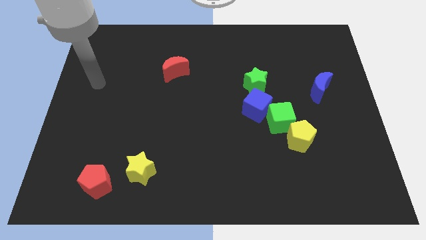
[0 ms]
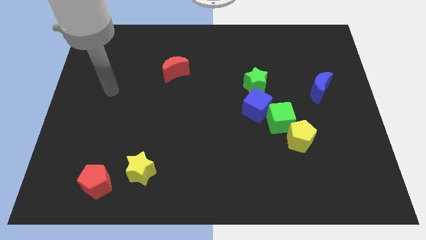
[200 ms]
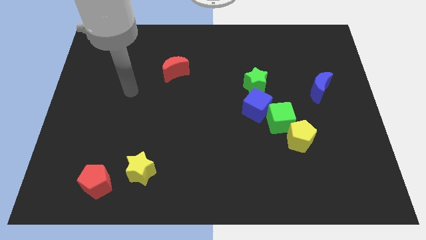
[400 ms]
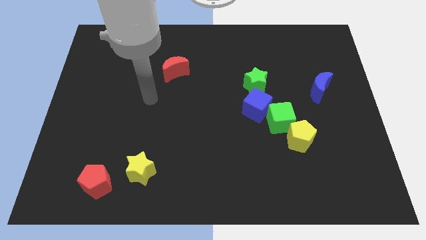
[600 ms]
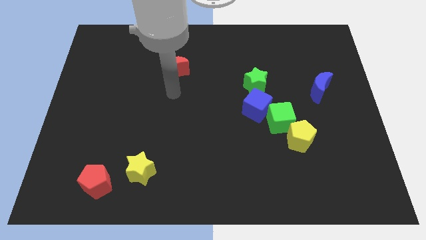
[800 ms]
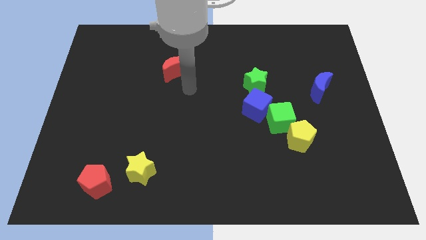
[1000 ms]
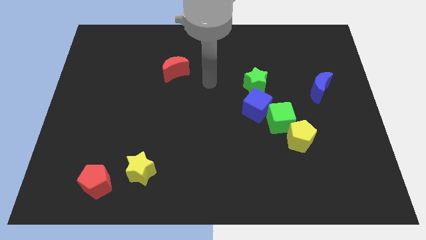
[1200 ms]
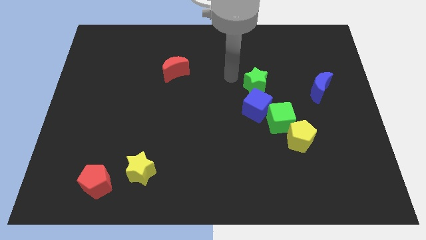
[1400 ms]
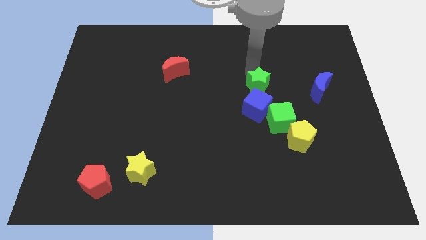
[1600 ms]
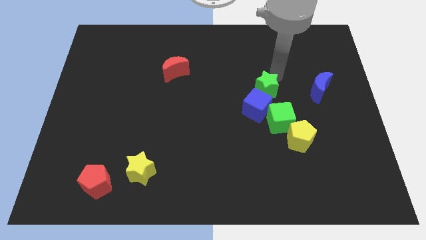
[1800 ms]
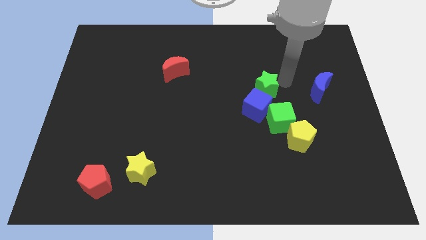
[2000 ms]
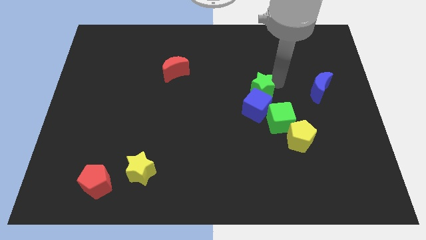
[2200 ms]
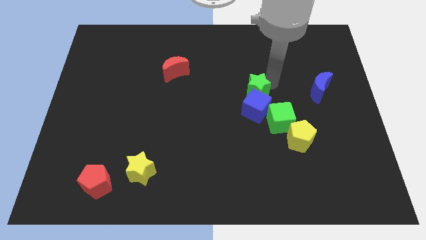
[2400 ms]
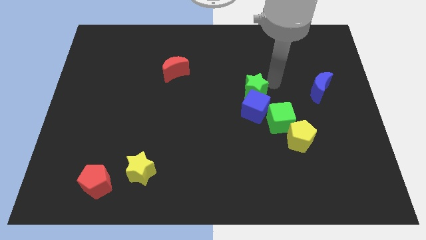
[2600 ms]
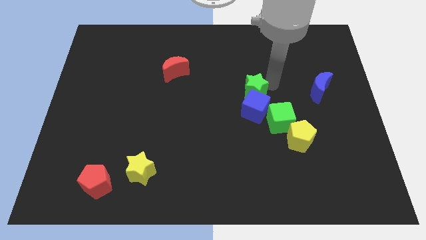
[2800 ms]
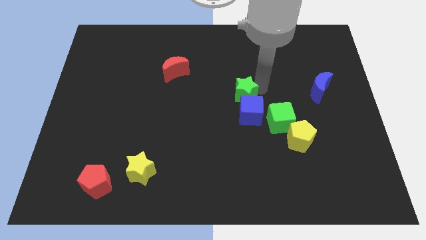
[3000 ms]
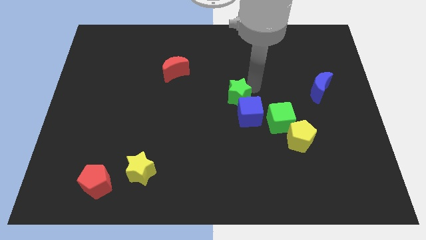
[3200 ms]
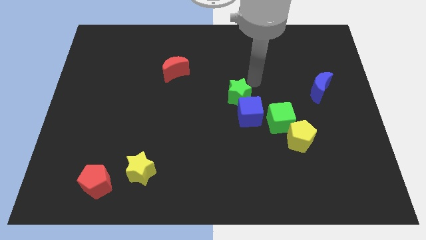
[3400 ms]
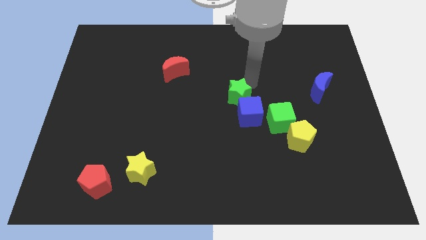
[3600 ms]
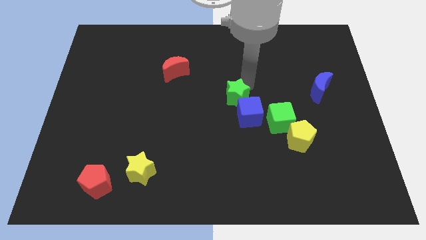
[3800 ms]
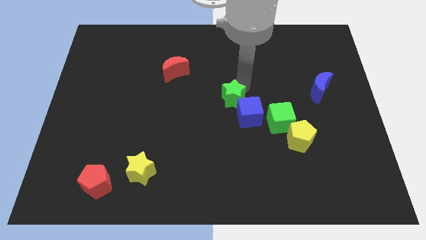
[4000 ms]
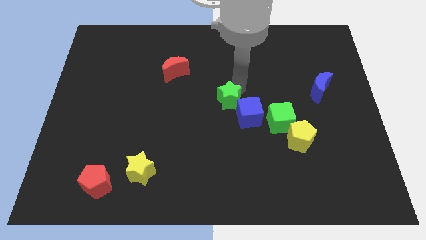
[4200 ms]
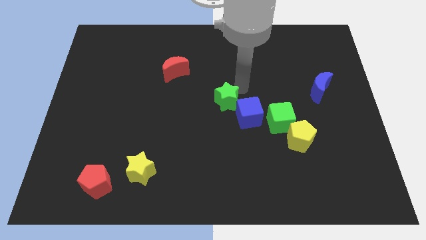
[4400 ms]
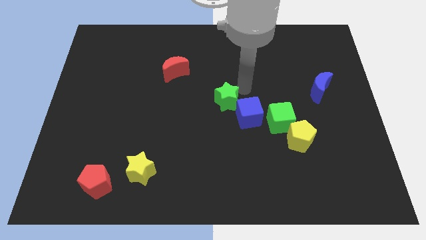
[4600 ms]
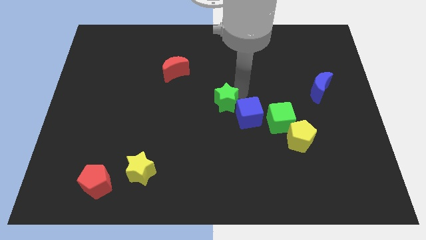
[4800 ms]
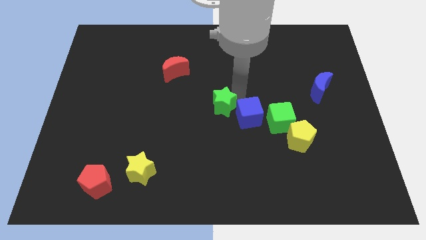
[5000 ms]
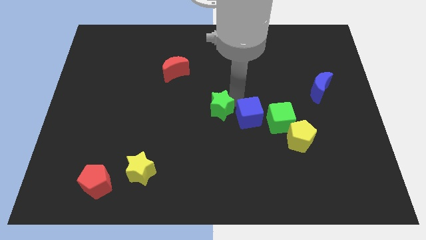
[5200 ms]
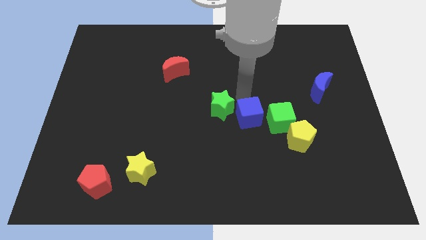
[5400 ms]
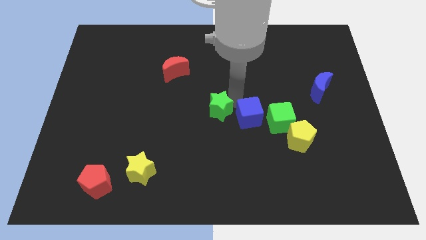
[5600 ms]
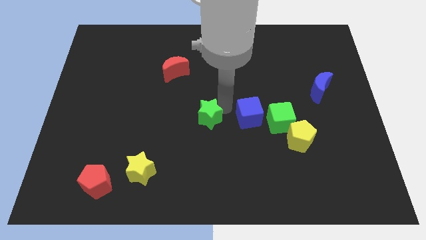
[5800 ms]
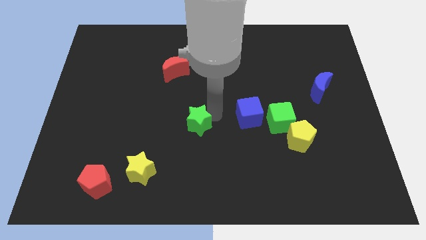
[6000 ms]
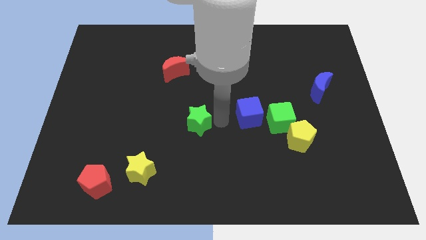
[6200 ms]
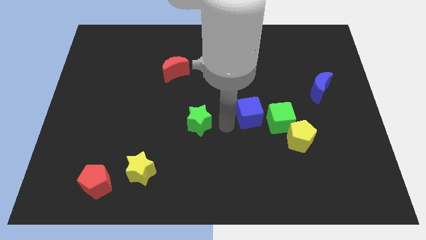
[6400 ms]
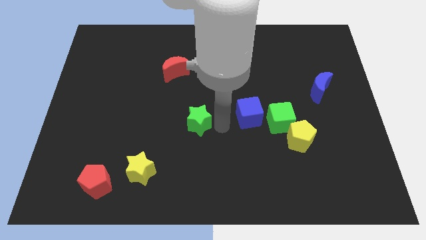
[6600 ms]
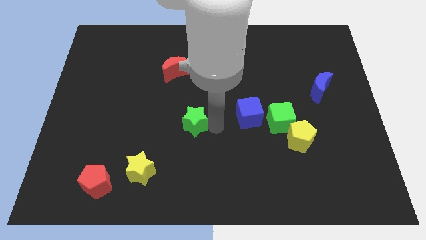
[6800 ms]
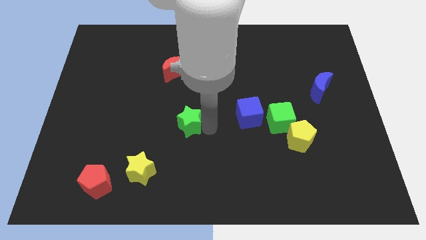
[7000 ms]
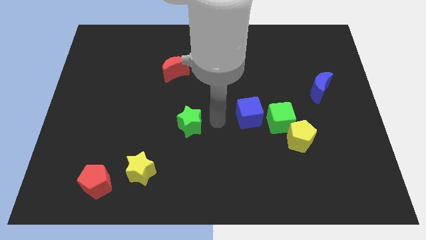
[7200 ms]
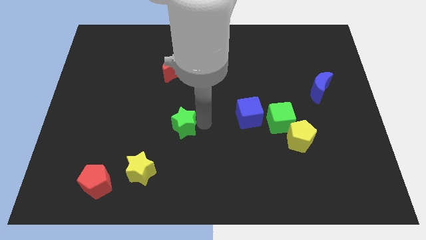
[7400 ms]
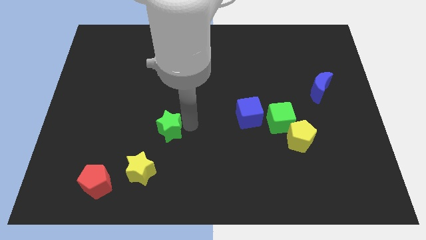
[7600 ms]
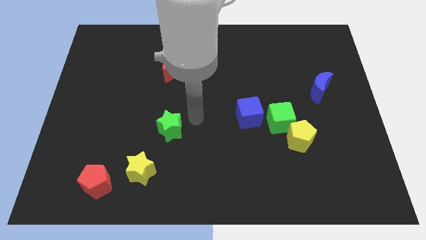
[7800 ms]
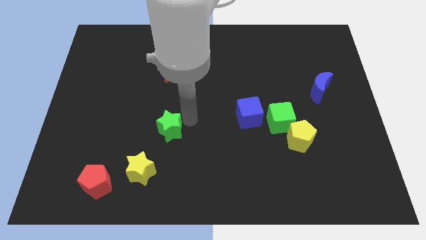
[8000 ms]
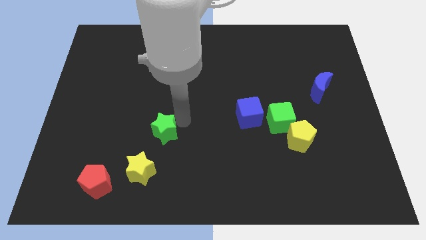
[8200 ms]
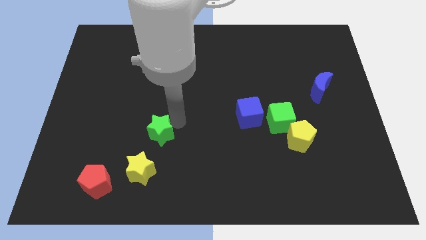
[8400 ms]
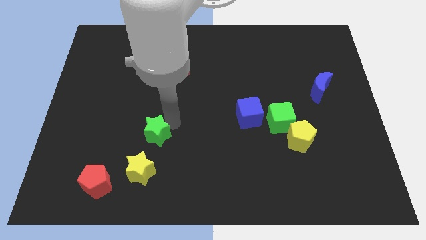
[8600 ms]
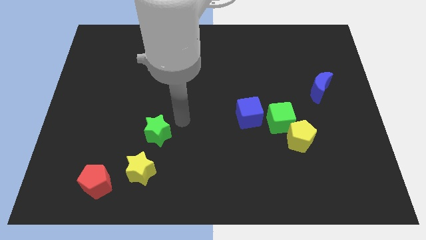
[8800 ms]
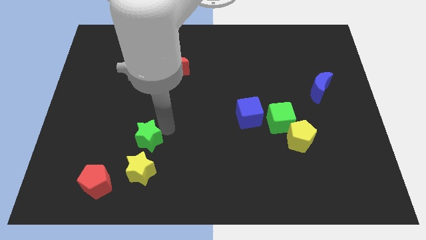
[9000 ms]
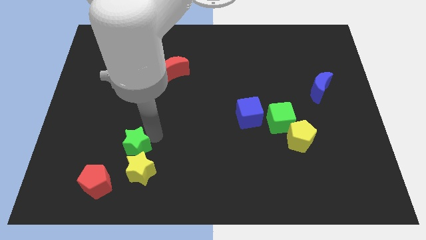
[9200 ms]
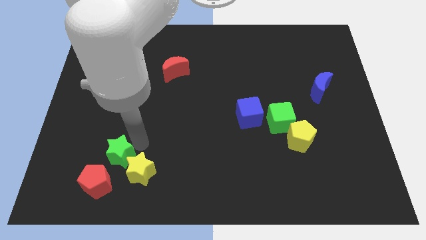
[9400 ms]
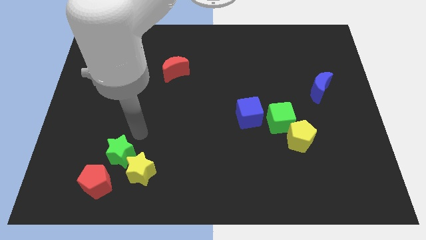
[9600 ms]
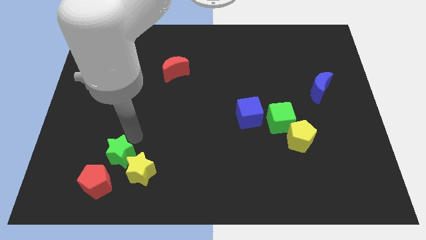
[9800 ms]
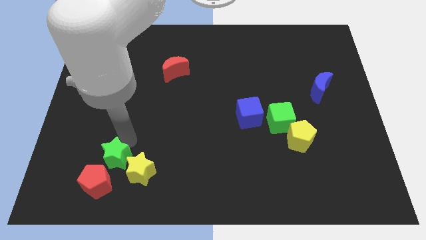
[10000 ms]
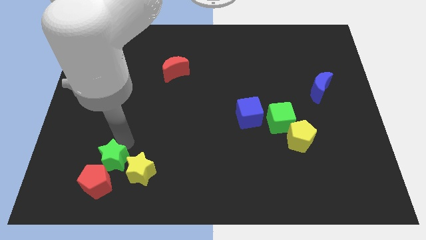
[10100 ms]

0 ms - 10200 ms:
slide the green star to the red pentagon

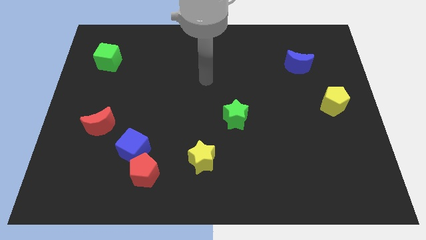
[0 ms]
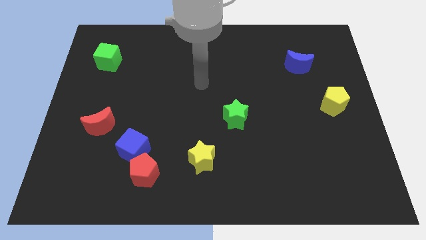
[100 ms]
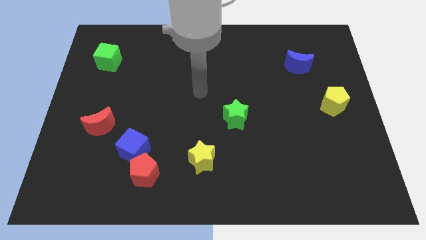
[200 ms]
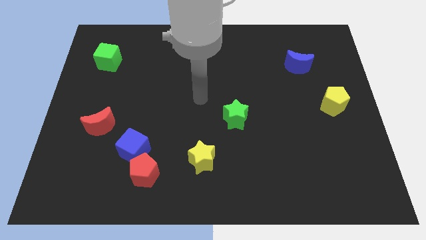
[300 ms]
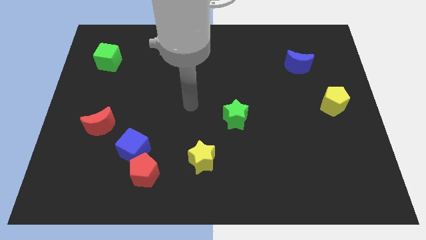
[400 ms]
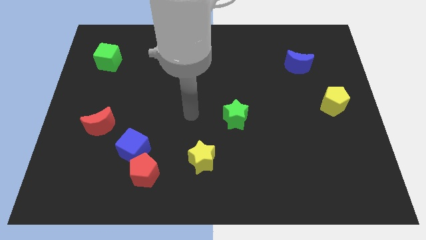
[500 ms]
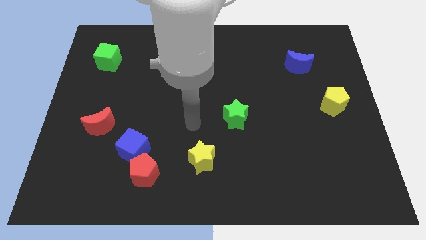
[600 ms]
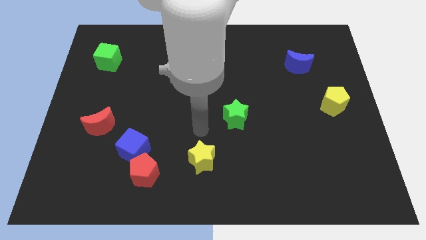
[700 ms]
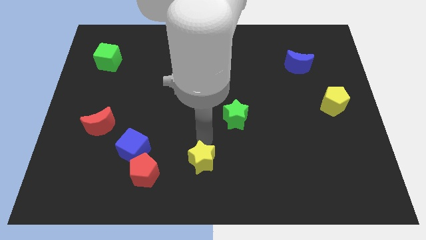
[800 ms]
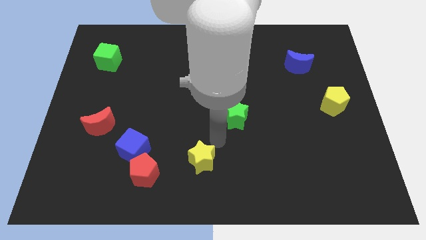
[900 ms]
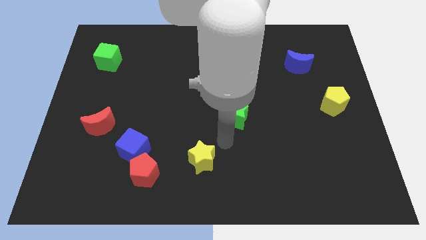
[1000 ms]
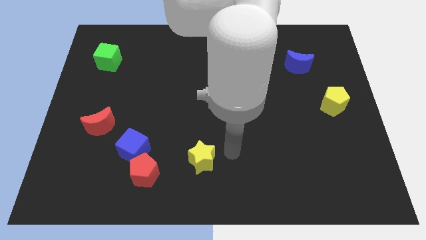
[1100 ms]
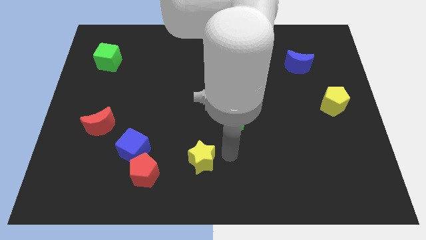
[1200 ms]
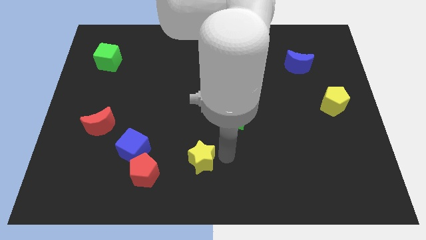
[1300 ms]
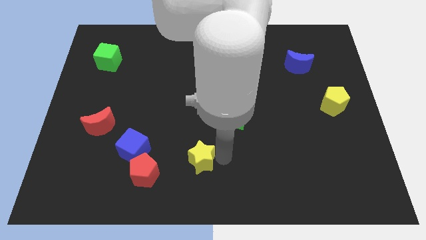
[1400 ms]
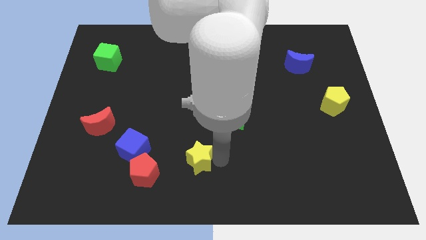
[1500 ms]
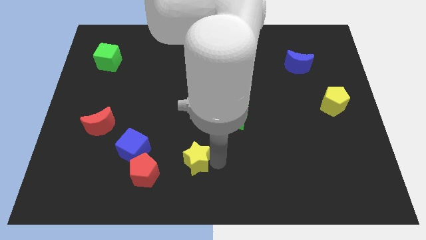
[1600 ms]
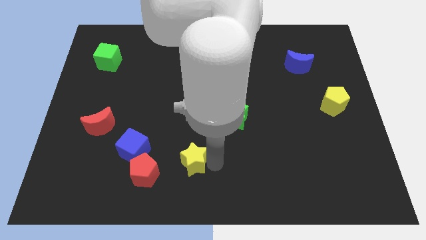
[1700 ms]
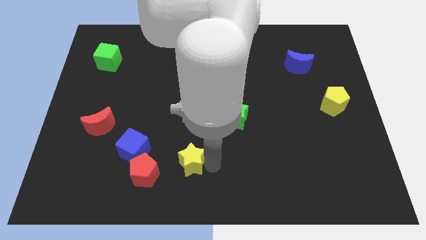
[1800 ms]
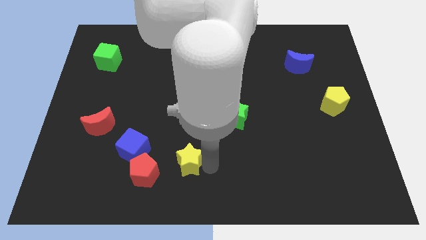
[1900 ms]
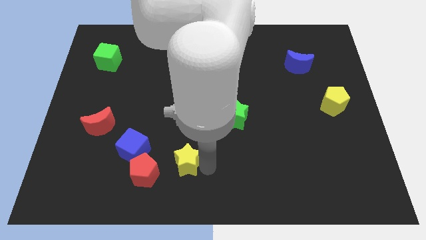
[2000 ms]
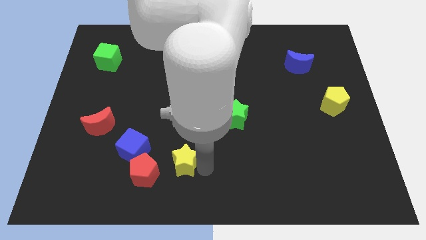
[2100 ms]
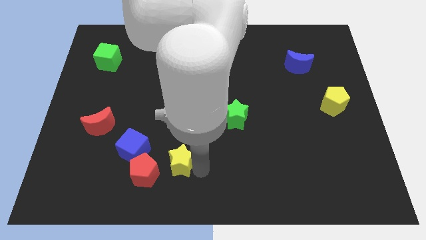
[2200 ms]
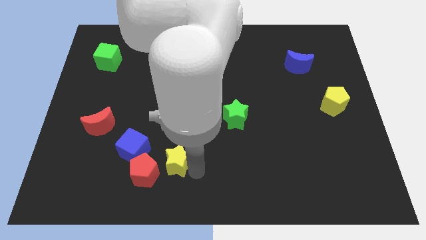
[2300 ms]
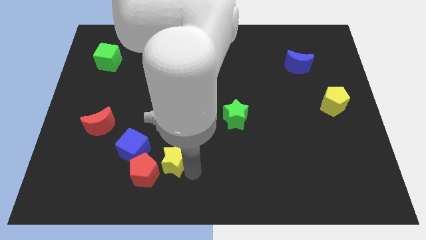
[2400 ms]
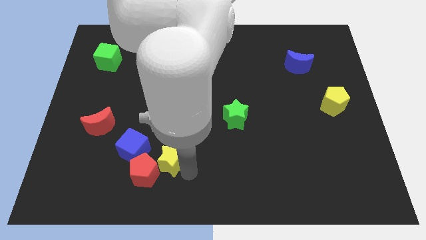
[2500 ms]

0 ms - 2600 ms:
move the yellow star next to the red pentagon

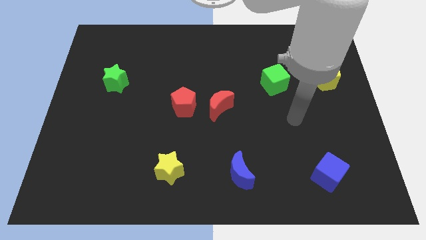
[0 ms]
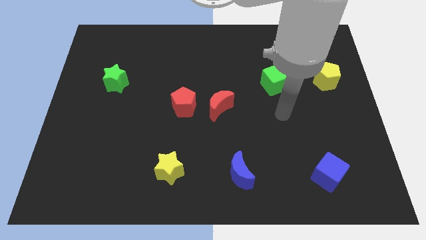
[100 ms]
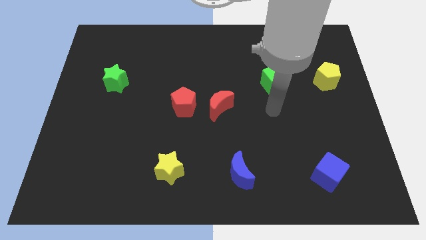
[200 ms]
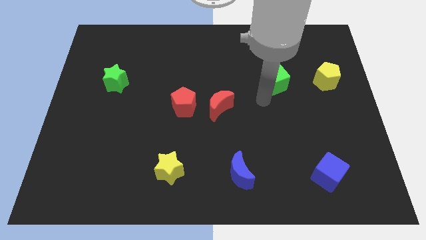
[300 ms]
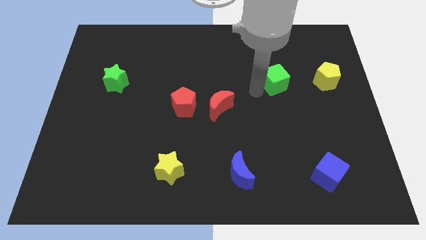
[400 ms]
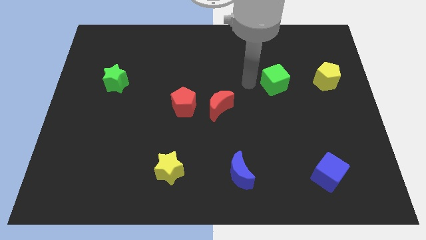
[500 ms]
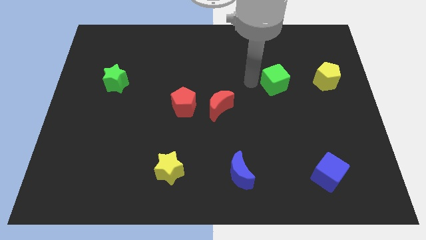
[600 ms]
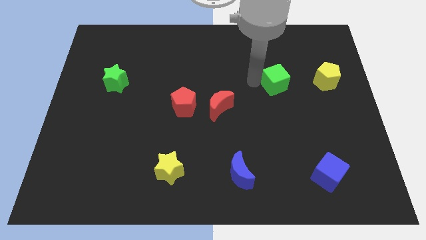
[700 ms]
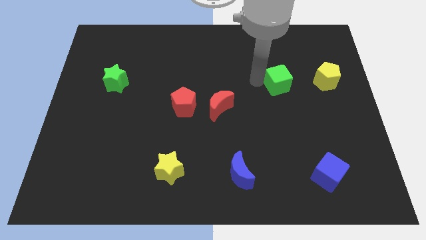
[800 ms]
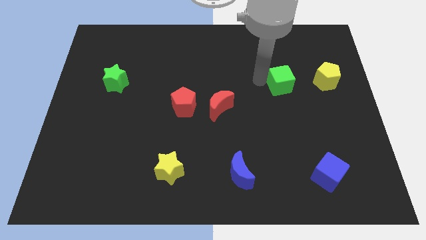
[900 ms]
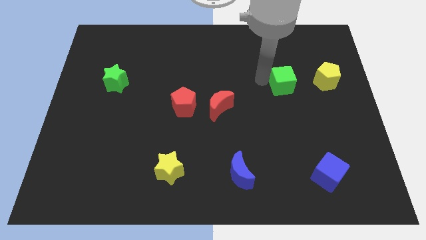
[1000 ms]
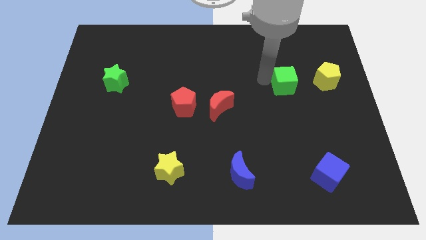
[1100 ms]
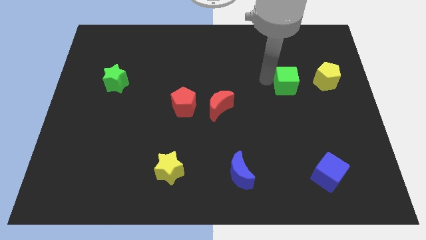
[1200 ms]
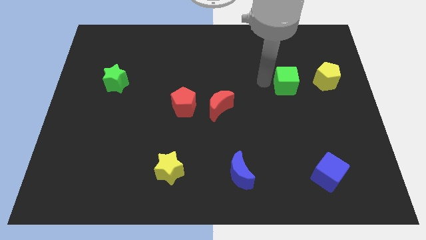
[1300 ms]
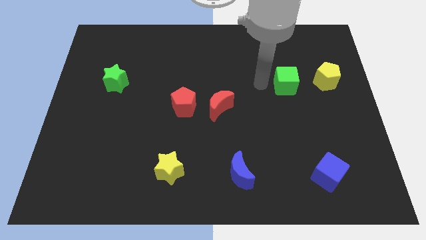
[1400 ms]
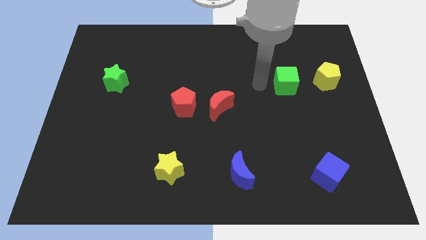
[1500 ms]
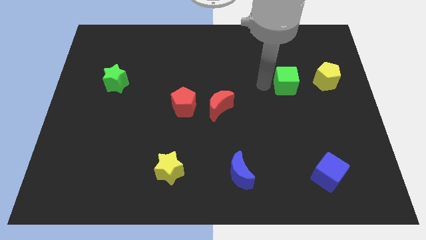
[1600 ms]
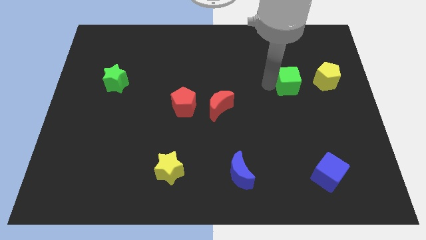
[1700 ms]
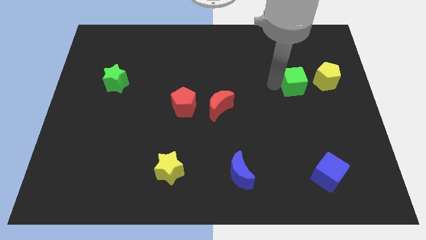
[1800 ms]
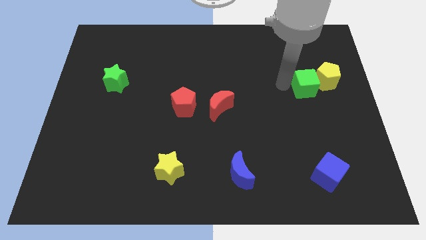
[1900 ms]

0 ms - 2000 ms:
put the green cube to the yellow pentagon
